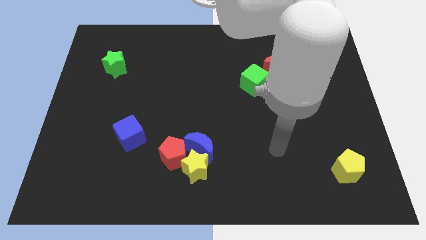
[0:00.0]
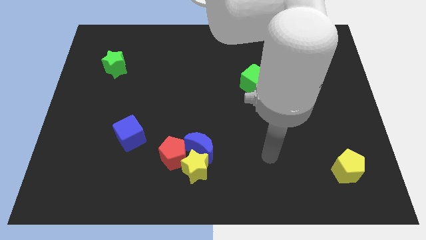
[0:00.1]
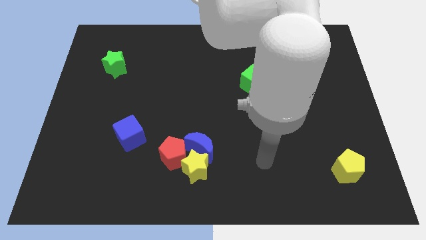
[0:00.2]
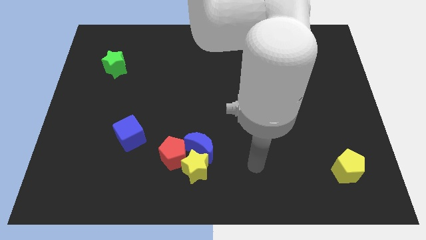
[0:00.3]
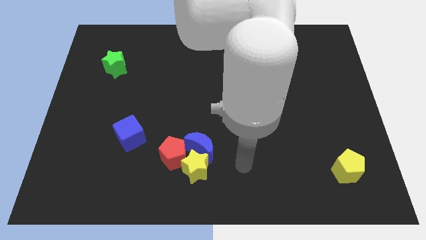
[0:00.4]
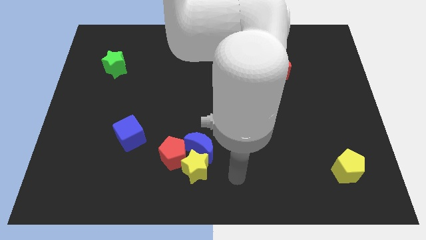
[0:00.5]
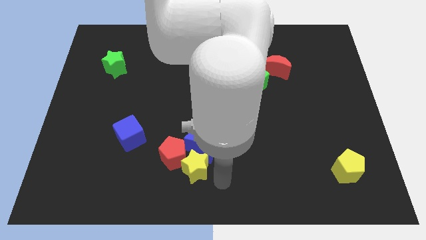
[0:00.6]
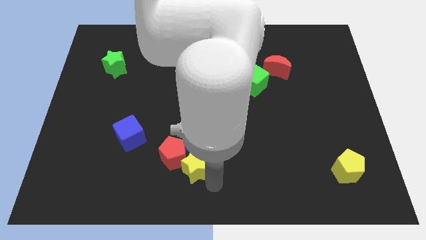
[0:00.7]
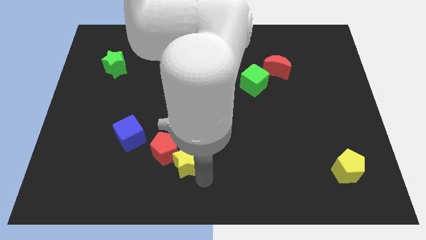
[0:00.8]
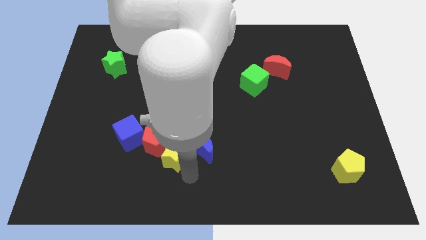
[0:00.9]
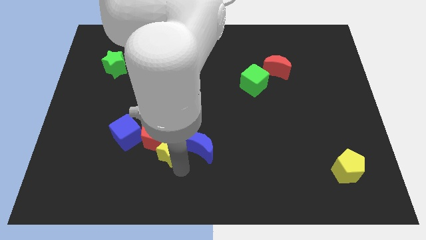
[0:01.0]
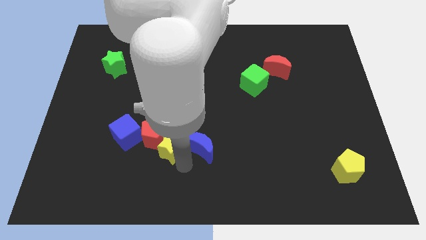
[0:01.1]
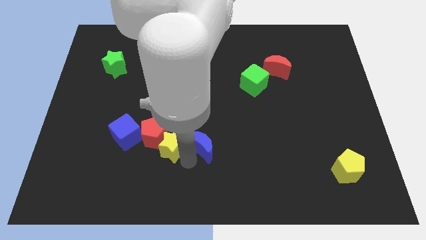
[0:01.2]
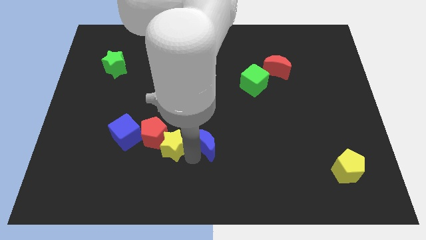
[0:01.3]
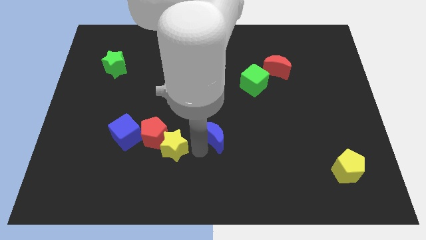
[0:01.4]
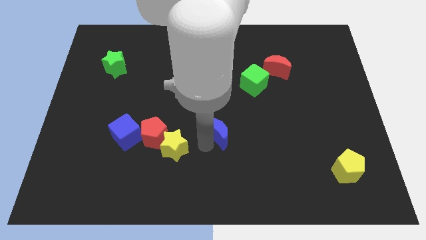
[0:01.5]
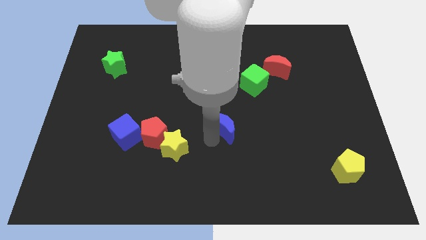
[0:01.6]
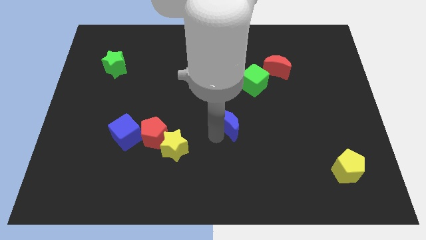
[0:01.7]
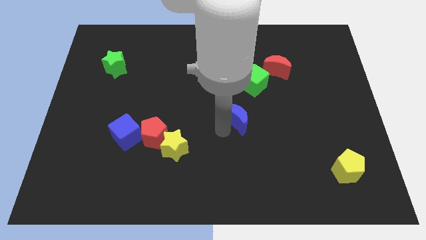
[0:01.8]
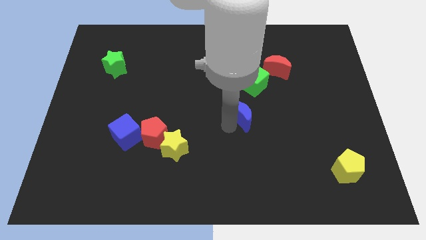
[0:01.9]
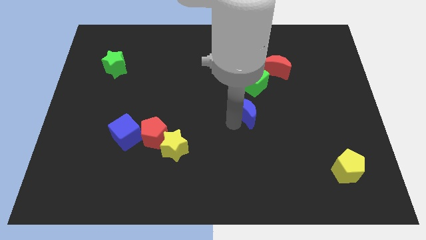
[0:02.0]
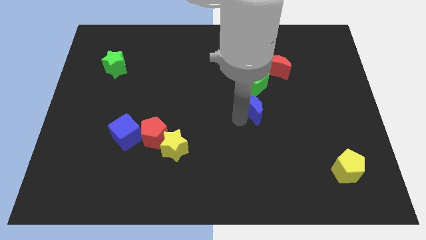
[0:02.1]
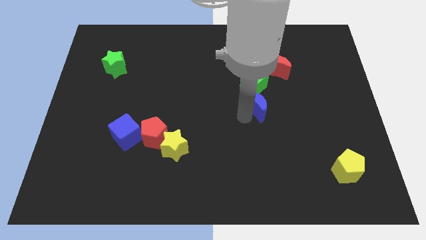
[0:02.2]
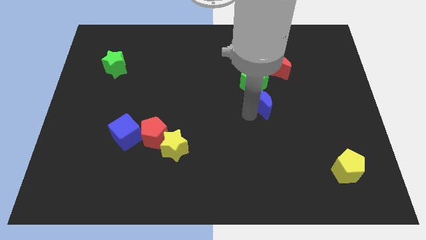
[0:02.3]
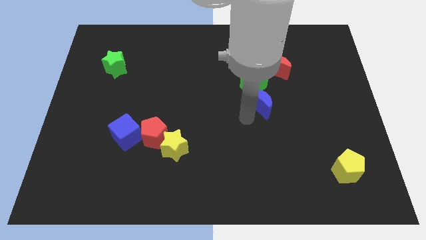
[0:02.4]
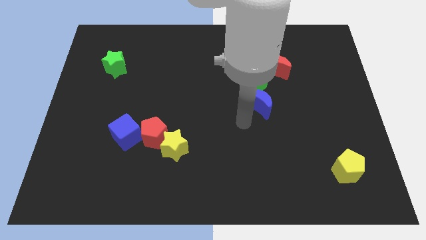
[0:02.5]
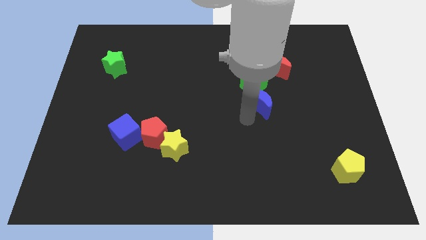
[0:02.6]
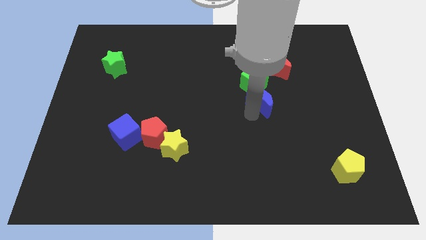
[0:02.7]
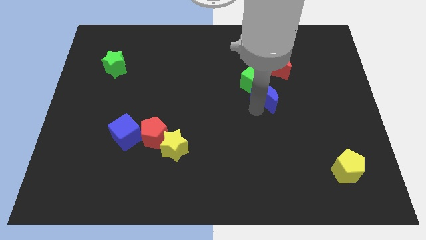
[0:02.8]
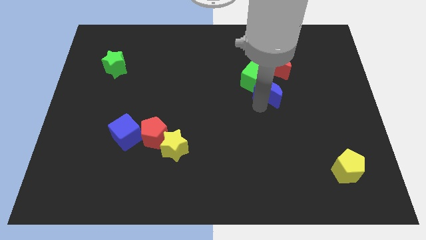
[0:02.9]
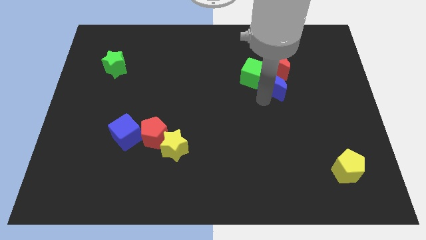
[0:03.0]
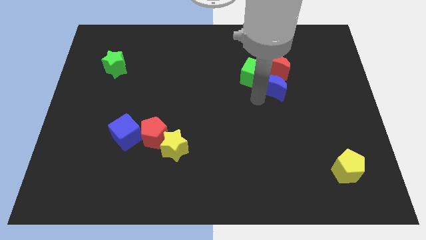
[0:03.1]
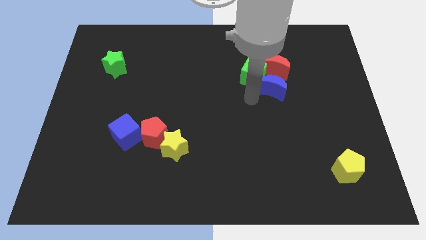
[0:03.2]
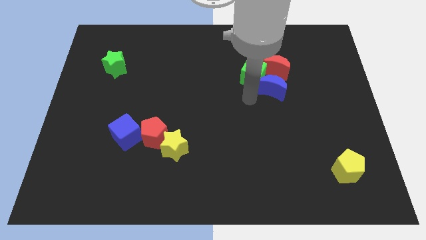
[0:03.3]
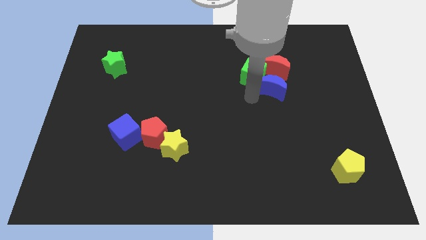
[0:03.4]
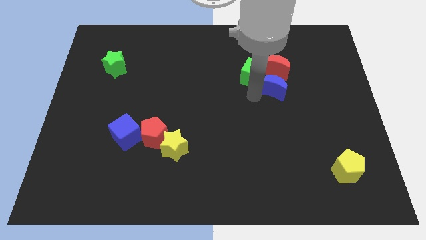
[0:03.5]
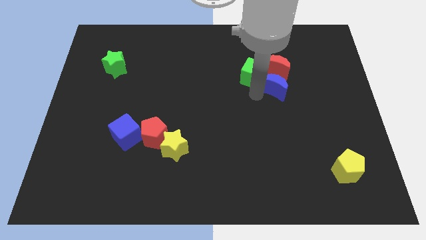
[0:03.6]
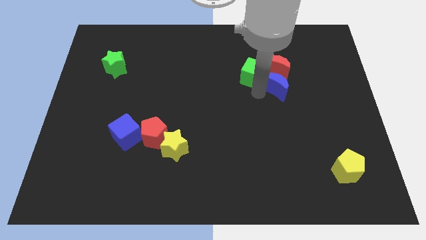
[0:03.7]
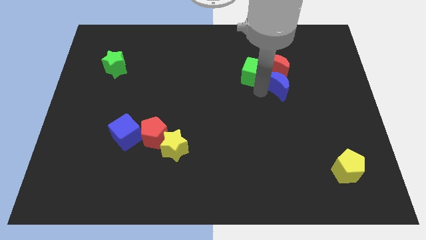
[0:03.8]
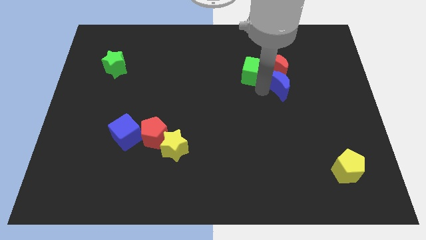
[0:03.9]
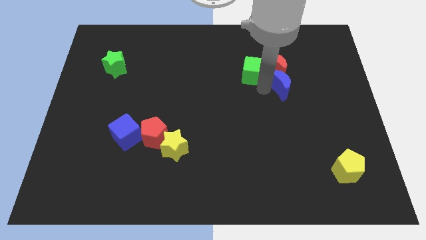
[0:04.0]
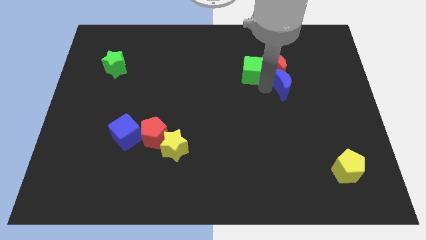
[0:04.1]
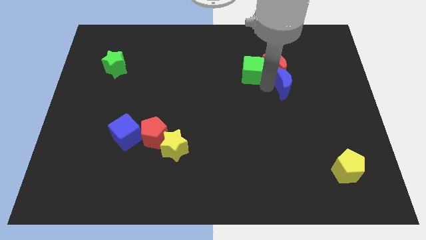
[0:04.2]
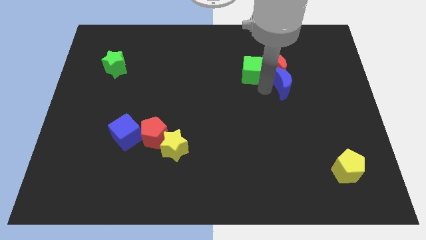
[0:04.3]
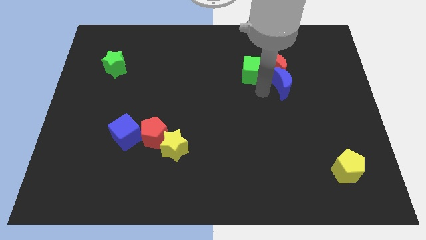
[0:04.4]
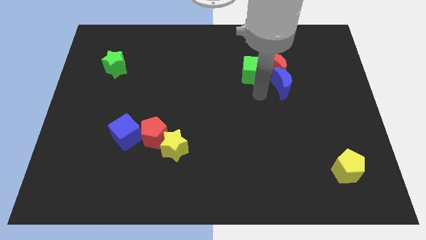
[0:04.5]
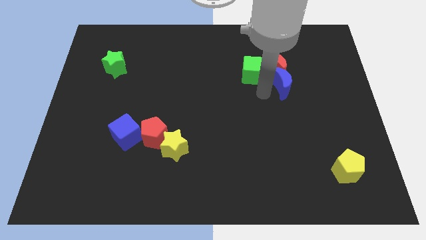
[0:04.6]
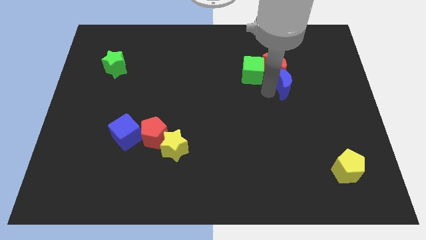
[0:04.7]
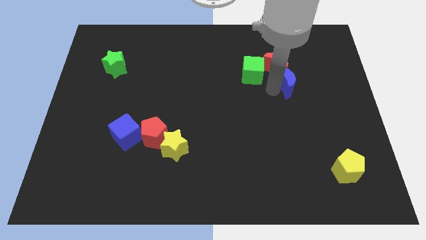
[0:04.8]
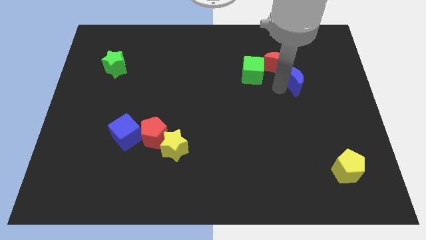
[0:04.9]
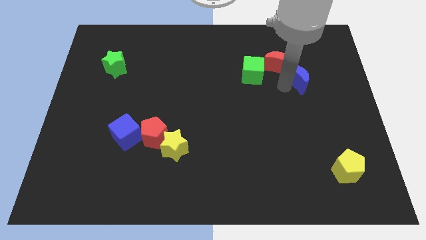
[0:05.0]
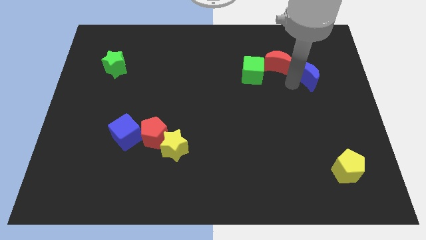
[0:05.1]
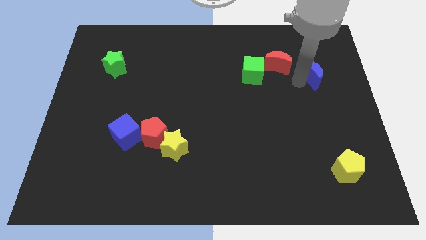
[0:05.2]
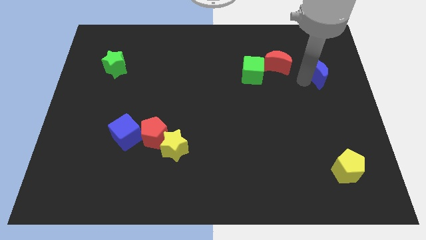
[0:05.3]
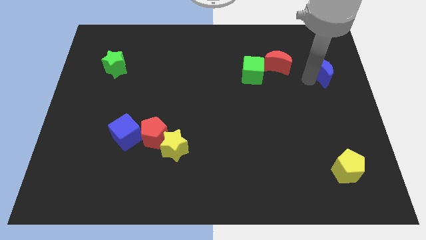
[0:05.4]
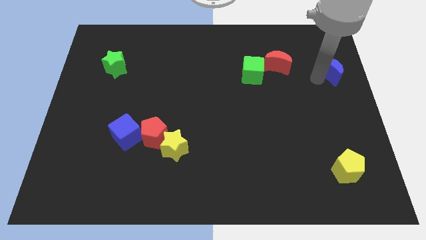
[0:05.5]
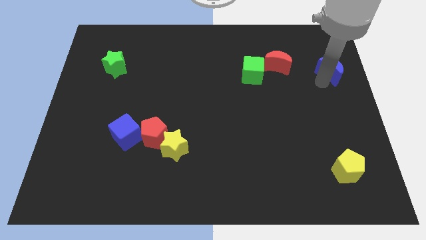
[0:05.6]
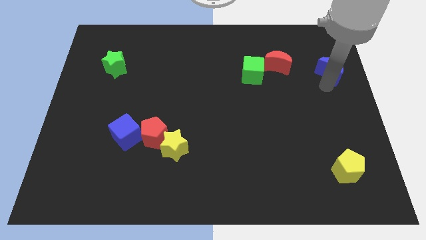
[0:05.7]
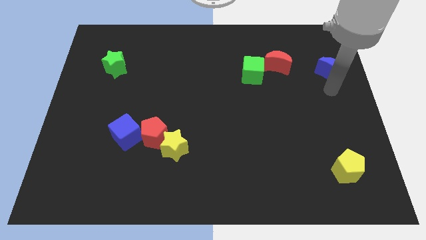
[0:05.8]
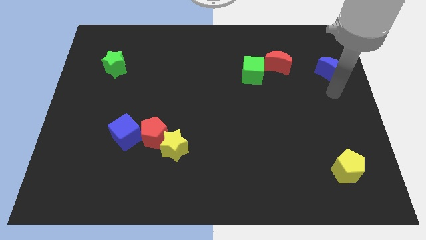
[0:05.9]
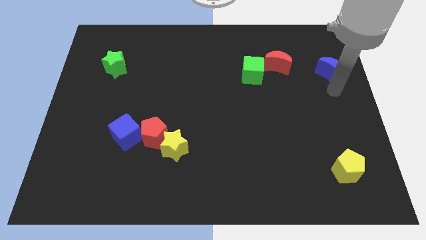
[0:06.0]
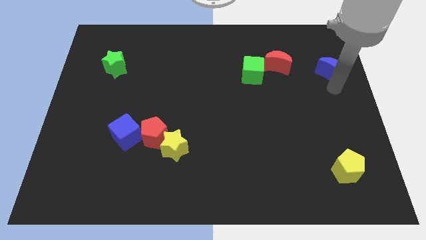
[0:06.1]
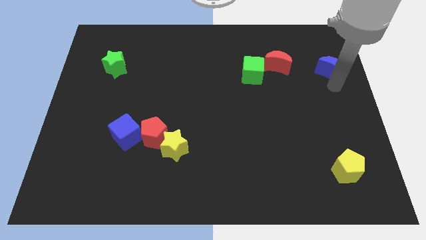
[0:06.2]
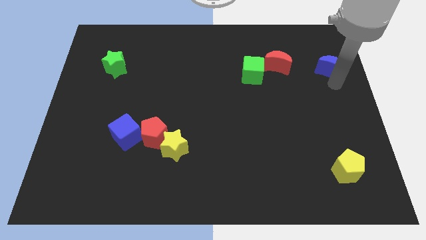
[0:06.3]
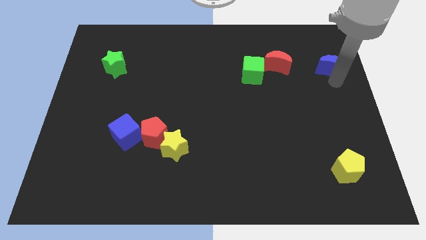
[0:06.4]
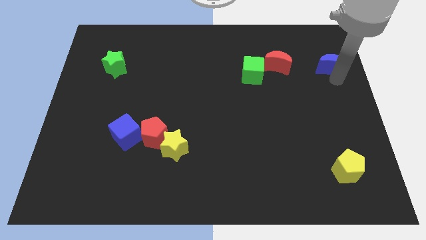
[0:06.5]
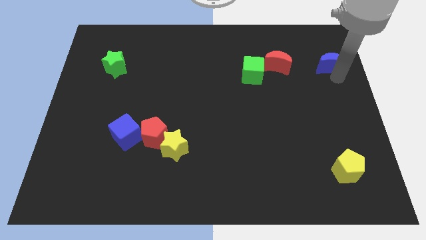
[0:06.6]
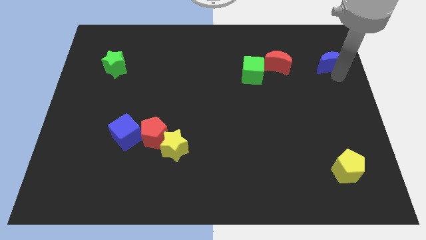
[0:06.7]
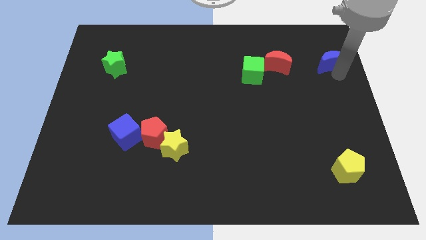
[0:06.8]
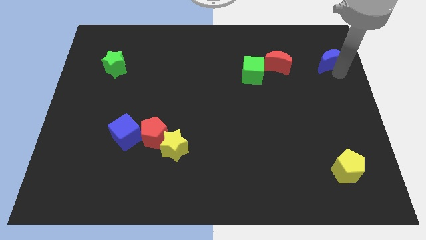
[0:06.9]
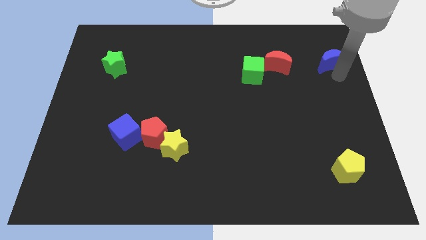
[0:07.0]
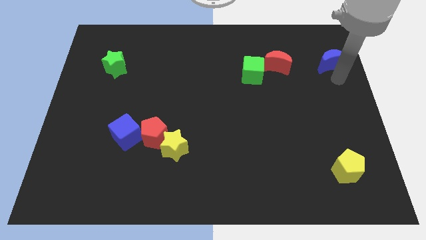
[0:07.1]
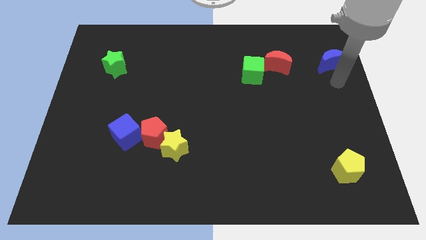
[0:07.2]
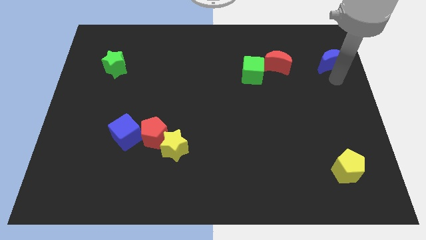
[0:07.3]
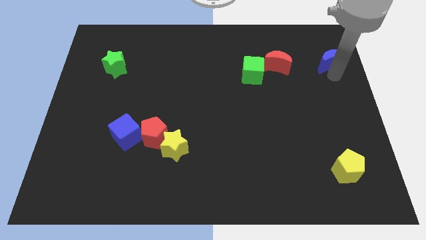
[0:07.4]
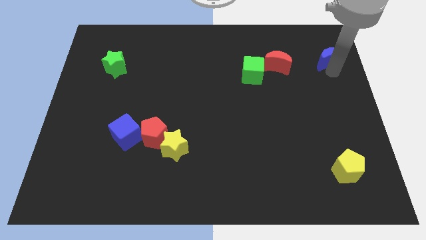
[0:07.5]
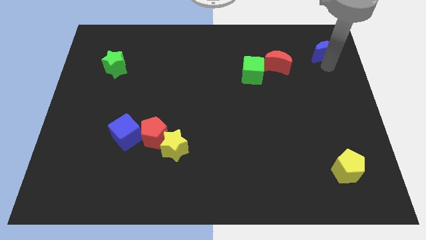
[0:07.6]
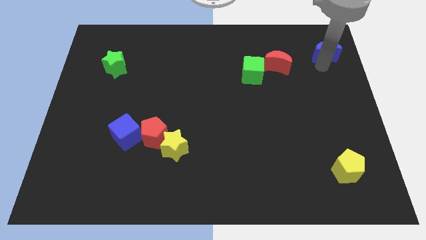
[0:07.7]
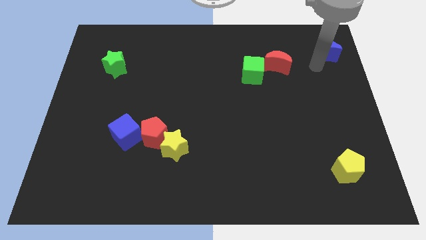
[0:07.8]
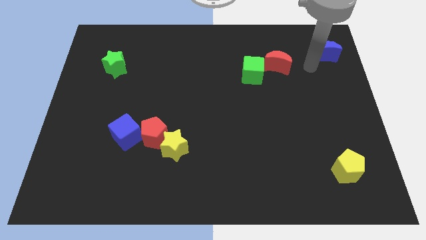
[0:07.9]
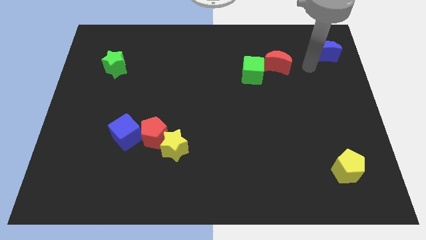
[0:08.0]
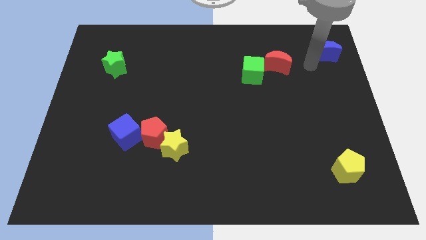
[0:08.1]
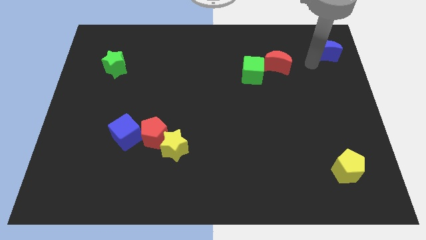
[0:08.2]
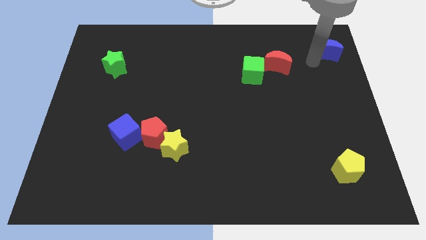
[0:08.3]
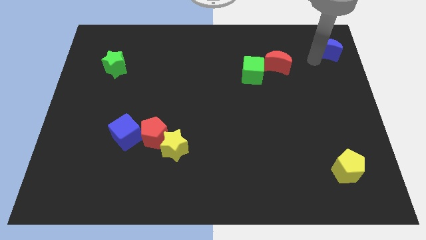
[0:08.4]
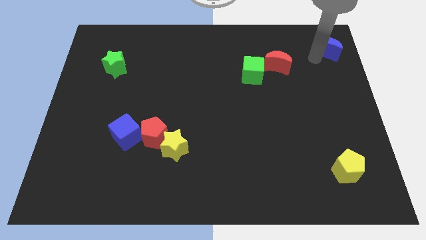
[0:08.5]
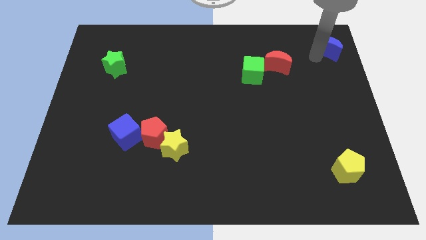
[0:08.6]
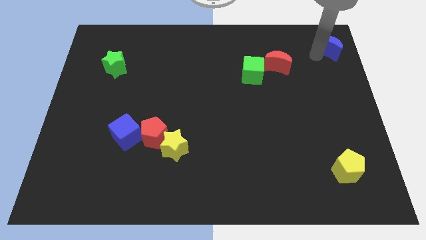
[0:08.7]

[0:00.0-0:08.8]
move the blue moon to the top right
